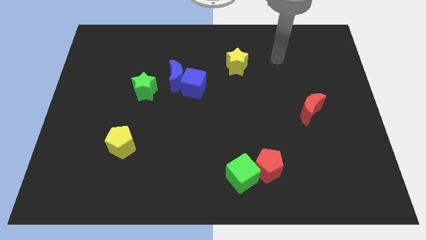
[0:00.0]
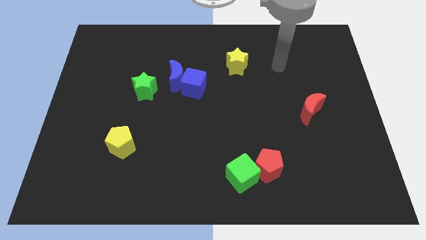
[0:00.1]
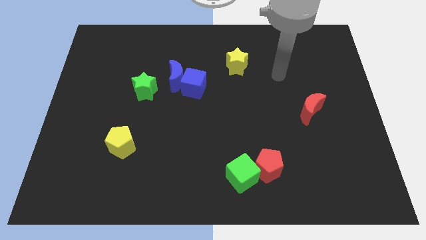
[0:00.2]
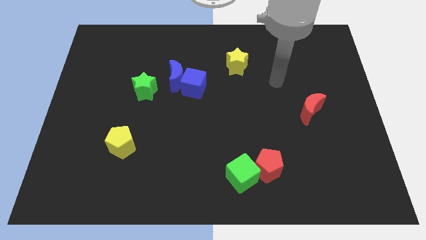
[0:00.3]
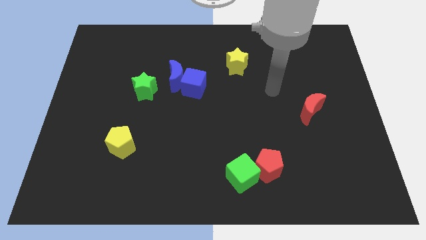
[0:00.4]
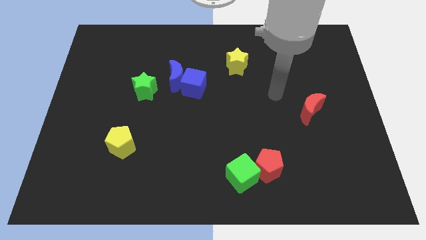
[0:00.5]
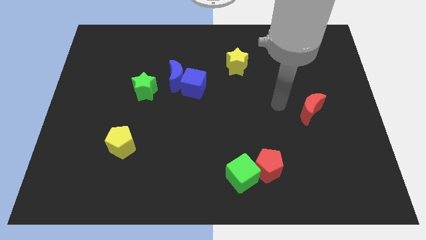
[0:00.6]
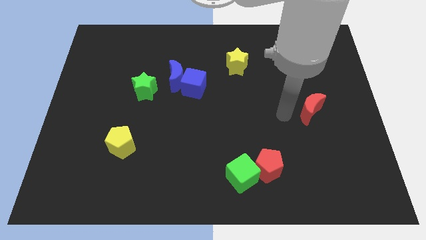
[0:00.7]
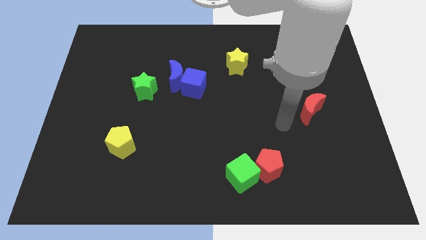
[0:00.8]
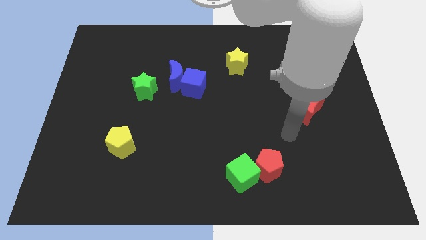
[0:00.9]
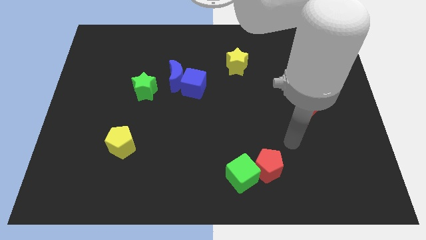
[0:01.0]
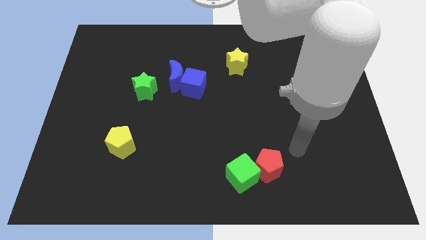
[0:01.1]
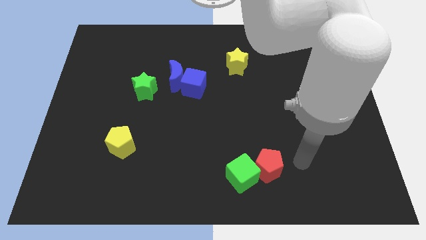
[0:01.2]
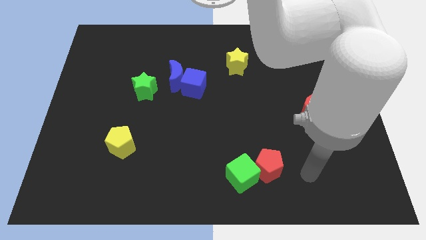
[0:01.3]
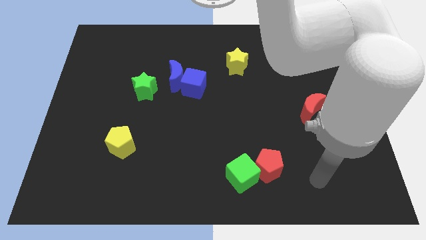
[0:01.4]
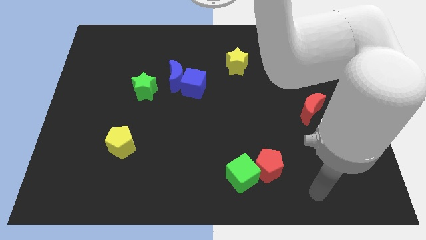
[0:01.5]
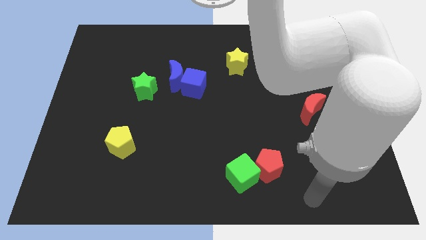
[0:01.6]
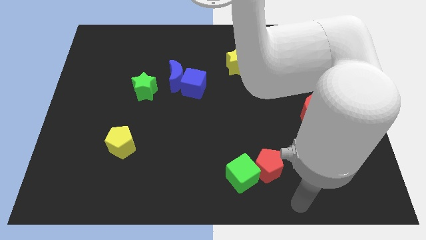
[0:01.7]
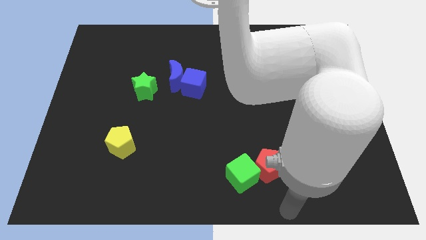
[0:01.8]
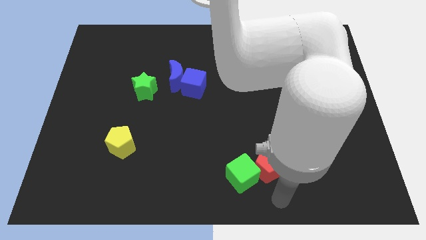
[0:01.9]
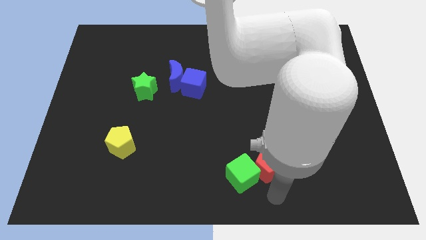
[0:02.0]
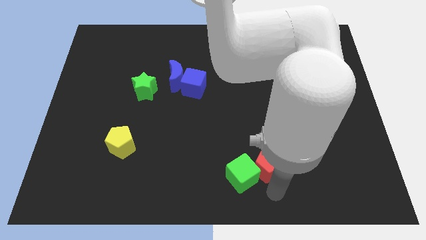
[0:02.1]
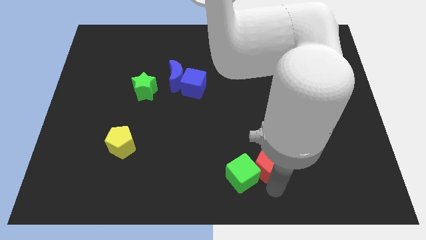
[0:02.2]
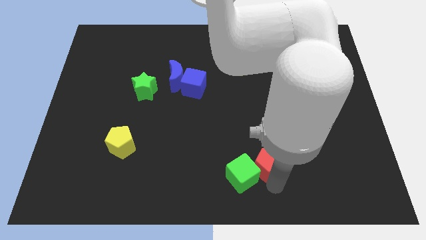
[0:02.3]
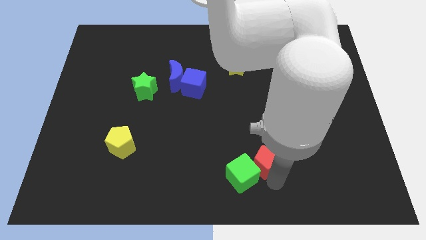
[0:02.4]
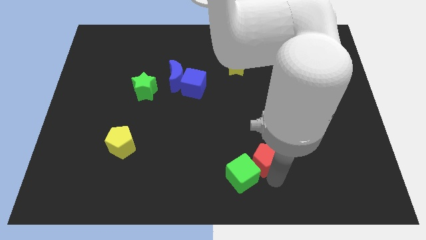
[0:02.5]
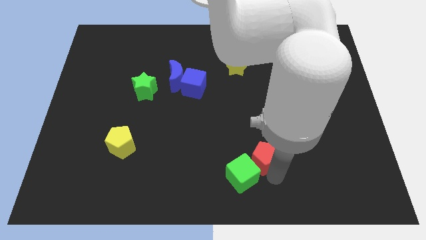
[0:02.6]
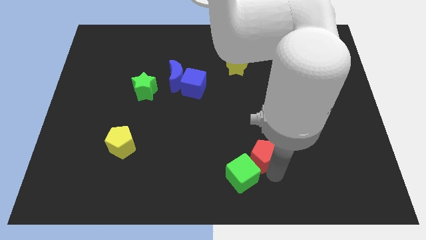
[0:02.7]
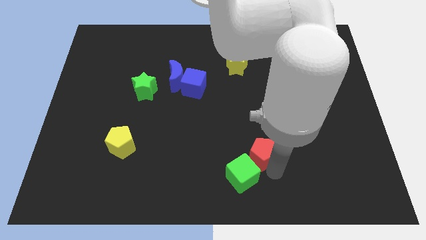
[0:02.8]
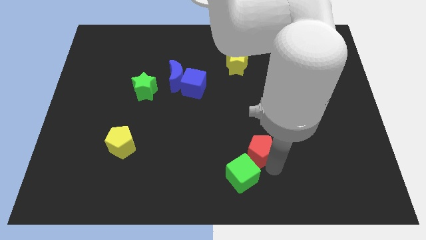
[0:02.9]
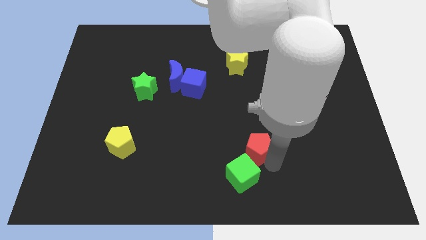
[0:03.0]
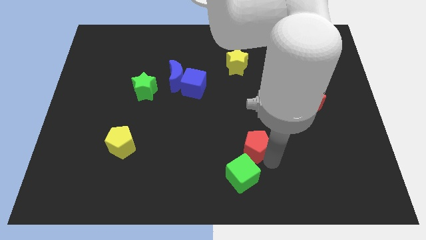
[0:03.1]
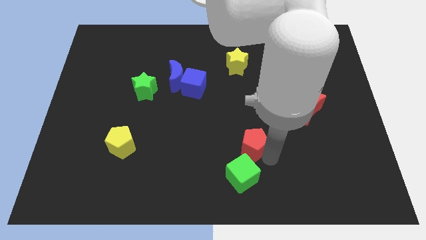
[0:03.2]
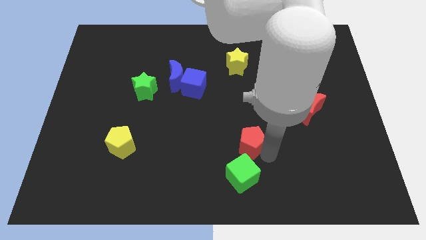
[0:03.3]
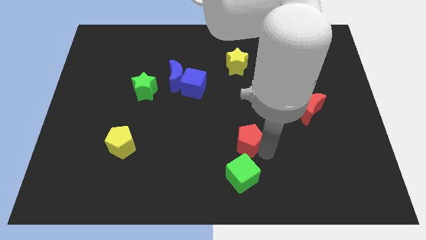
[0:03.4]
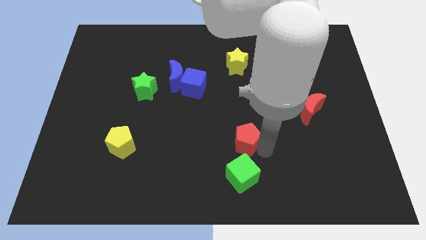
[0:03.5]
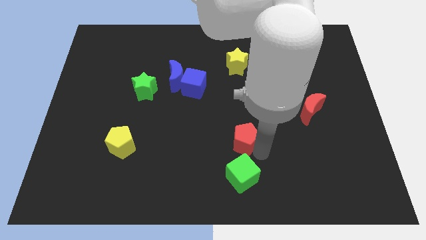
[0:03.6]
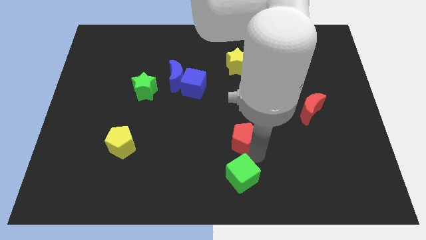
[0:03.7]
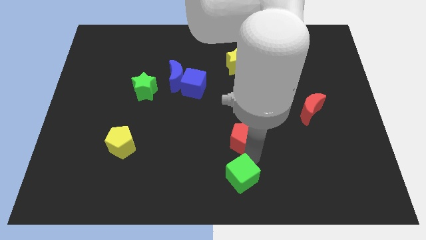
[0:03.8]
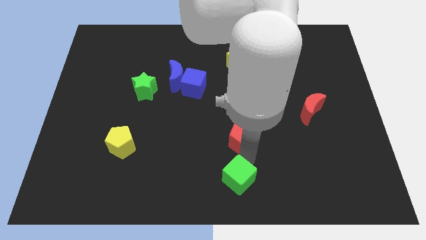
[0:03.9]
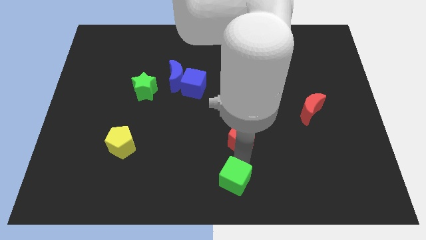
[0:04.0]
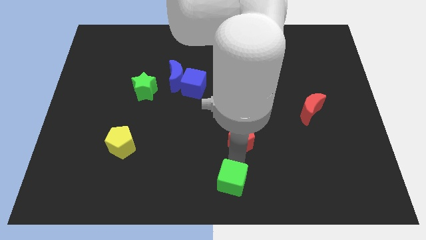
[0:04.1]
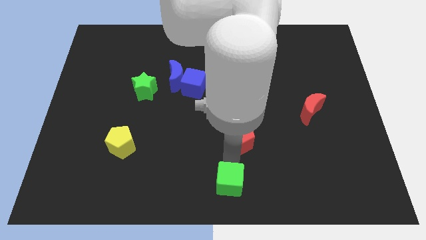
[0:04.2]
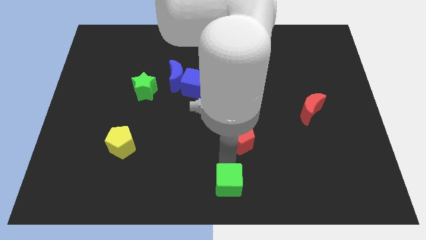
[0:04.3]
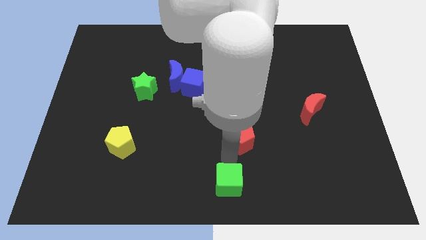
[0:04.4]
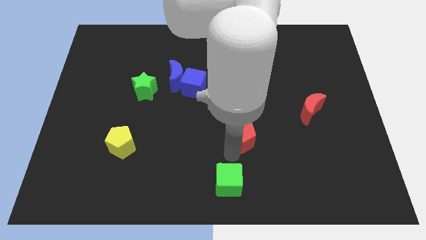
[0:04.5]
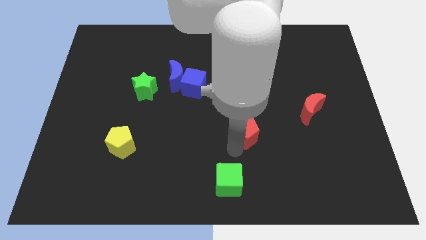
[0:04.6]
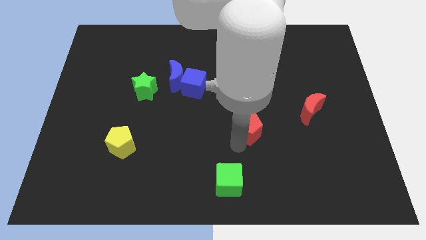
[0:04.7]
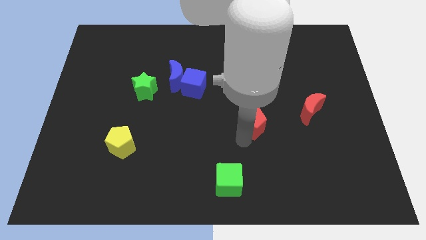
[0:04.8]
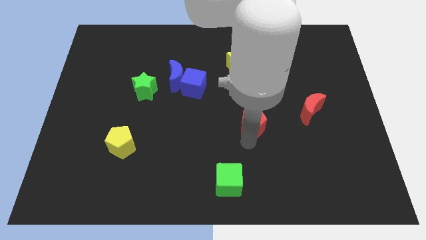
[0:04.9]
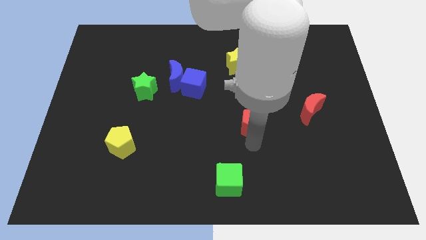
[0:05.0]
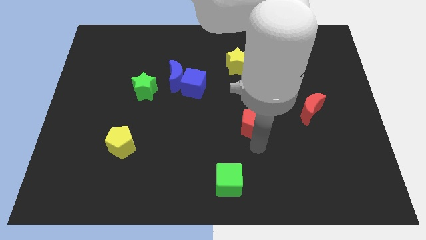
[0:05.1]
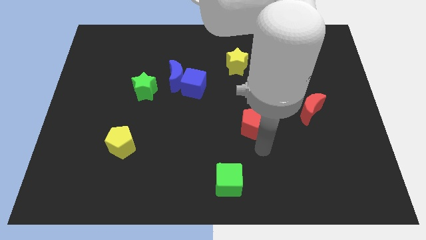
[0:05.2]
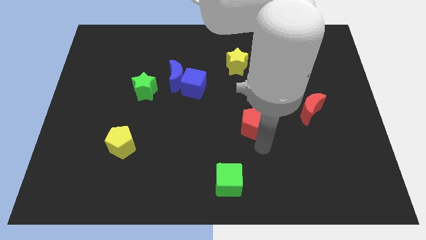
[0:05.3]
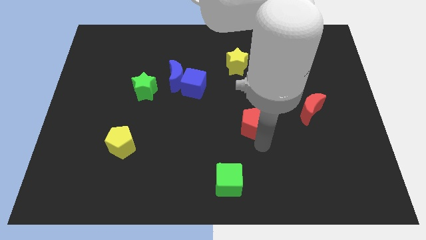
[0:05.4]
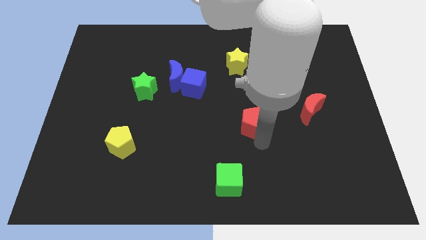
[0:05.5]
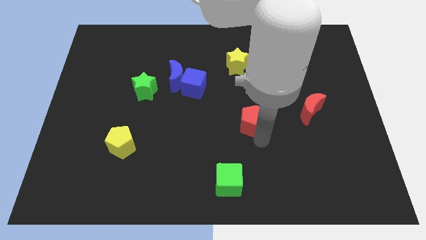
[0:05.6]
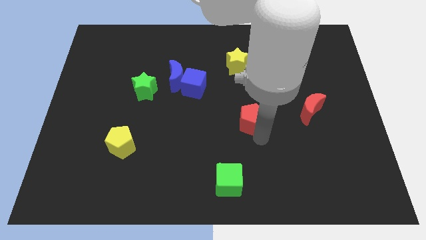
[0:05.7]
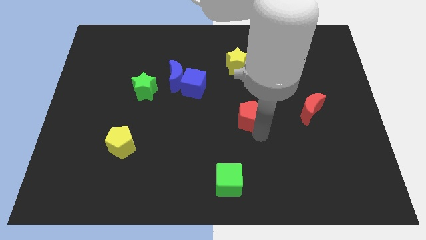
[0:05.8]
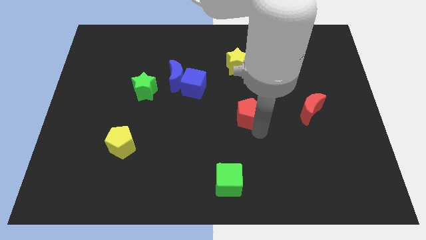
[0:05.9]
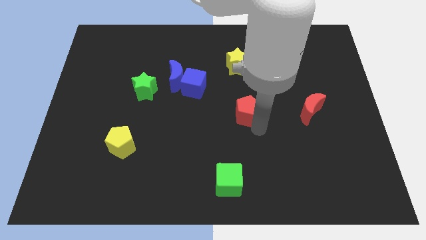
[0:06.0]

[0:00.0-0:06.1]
move the red pentagon below the yellow star

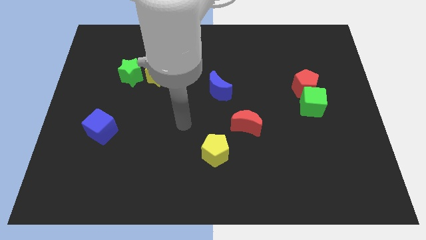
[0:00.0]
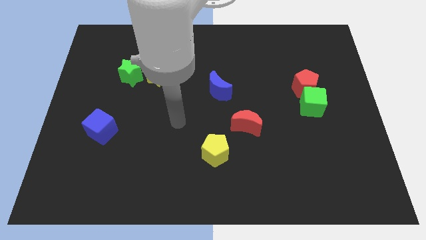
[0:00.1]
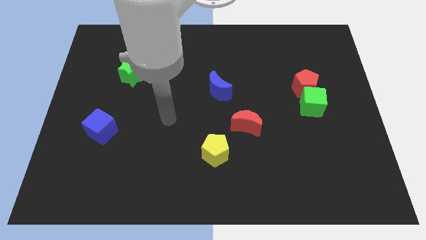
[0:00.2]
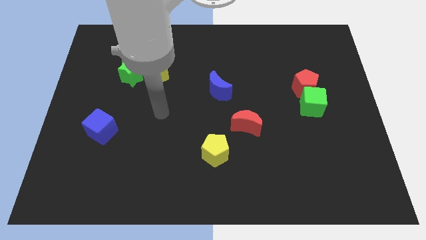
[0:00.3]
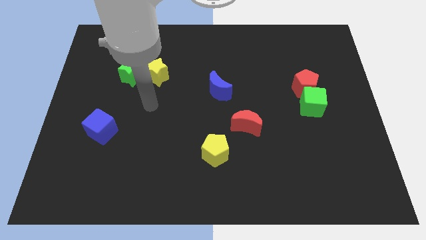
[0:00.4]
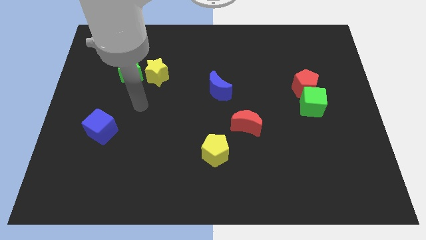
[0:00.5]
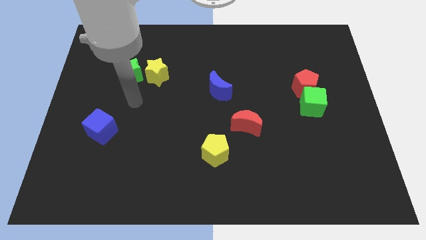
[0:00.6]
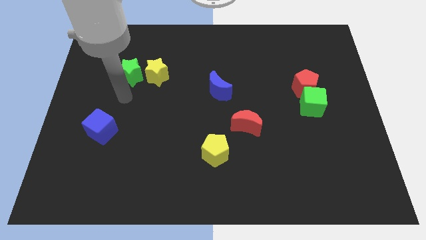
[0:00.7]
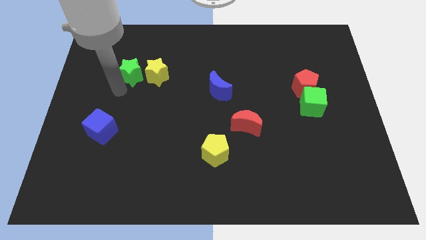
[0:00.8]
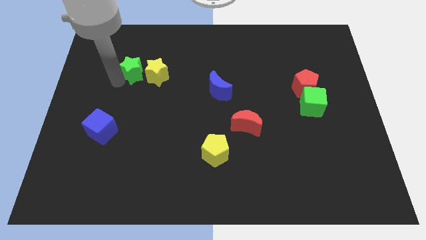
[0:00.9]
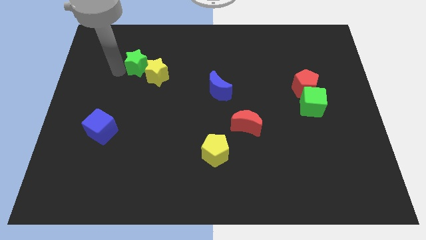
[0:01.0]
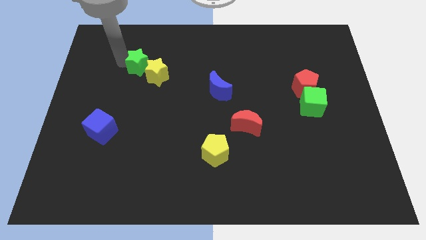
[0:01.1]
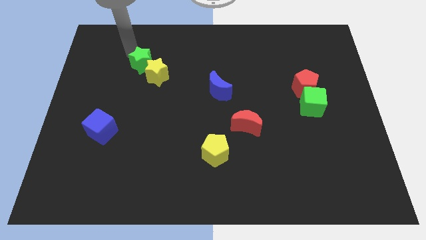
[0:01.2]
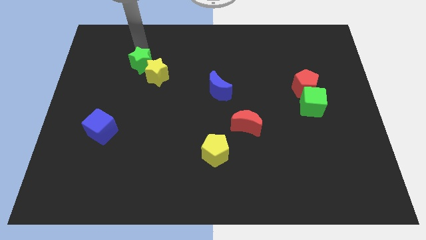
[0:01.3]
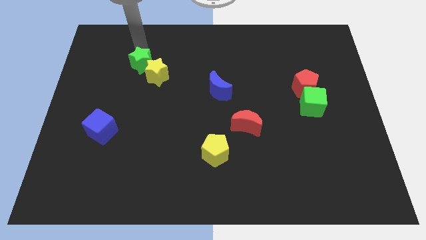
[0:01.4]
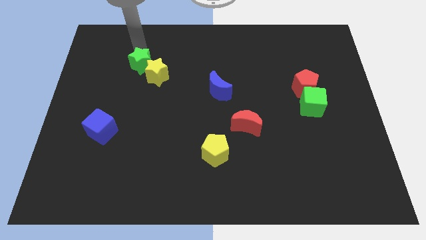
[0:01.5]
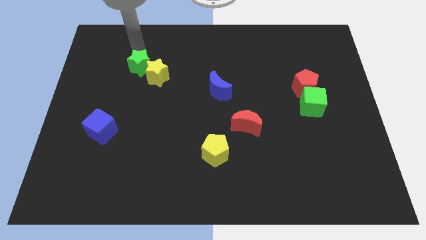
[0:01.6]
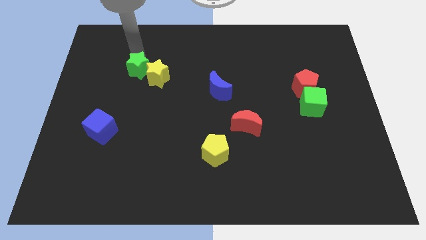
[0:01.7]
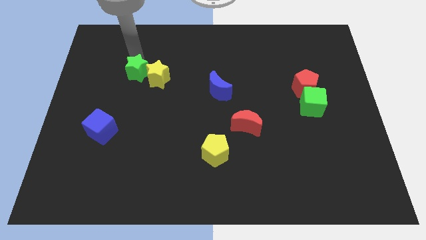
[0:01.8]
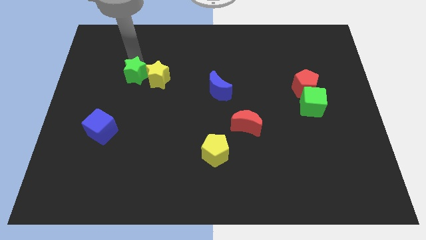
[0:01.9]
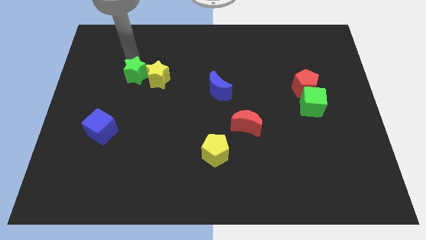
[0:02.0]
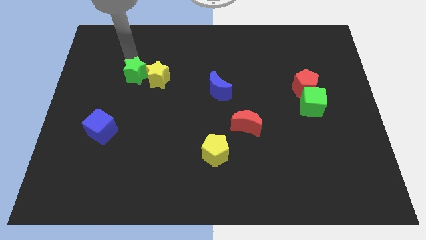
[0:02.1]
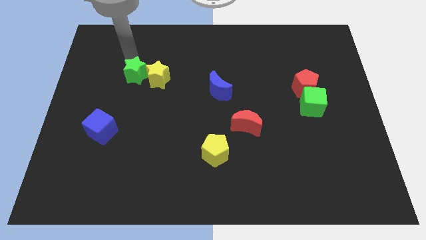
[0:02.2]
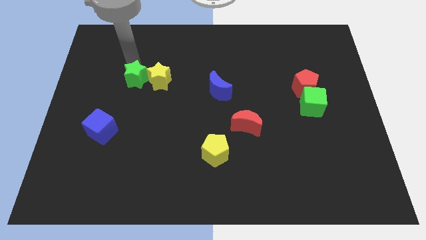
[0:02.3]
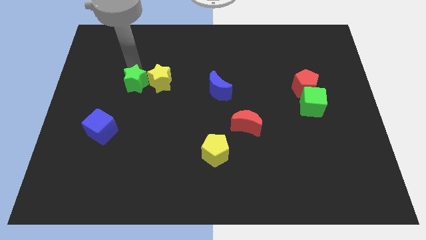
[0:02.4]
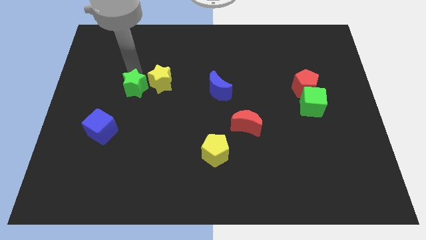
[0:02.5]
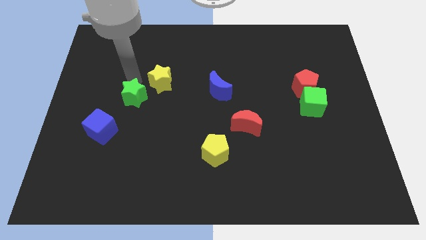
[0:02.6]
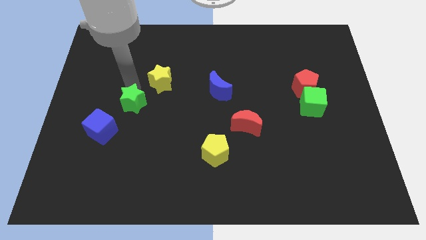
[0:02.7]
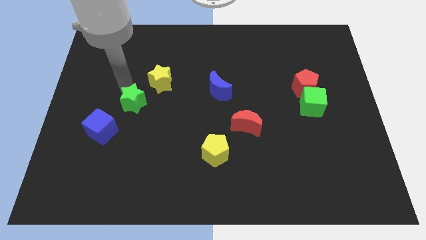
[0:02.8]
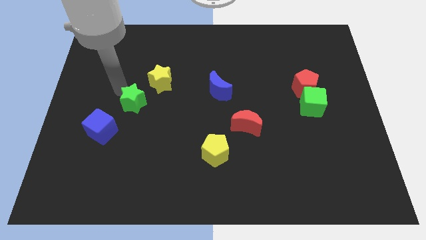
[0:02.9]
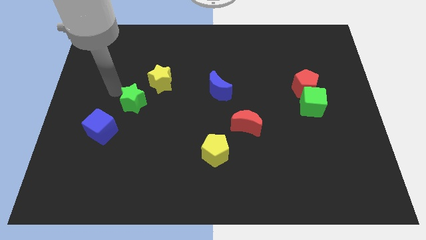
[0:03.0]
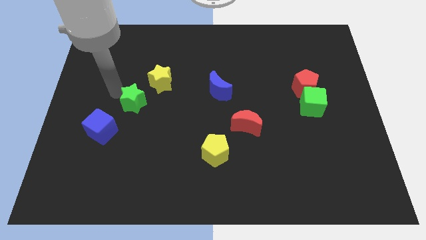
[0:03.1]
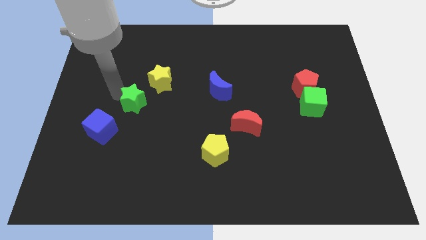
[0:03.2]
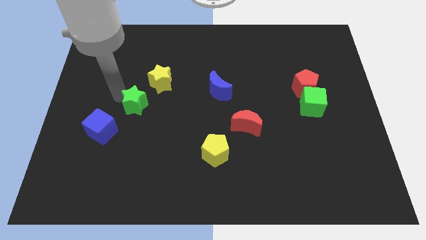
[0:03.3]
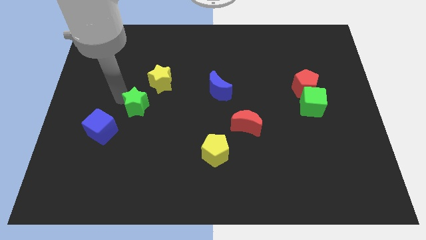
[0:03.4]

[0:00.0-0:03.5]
put the green star to the bottom side of the yellow star
